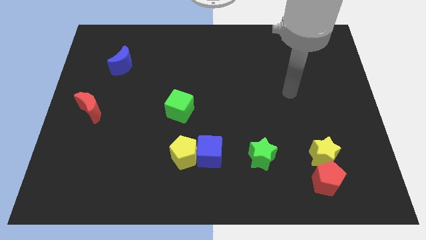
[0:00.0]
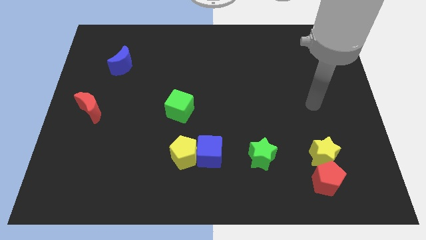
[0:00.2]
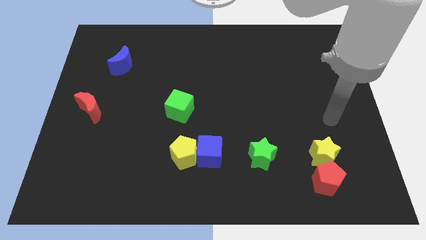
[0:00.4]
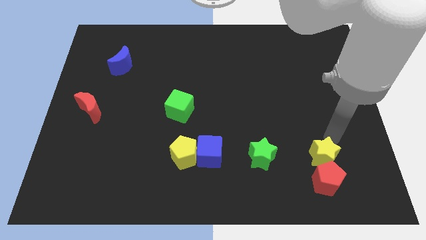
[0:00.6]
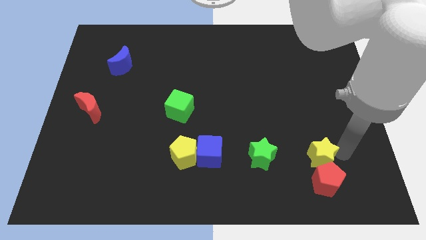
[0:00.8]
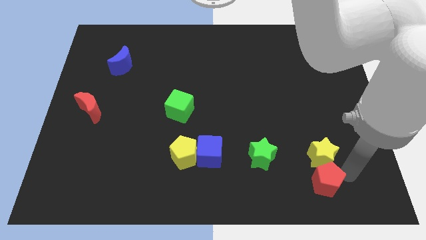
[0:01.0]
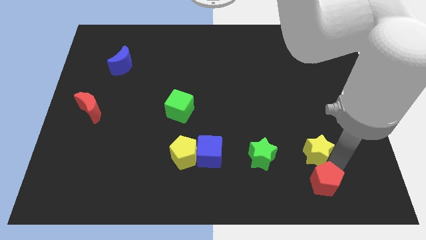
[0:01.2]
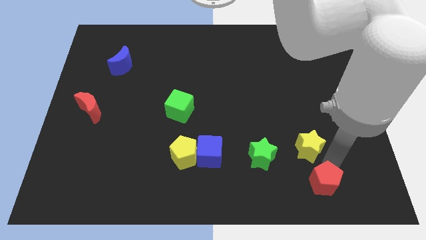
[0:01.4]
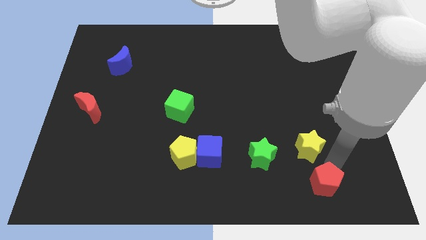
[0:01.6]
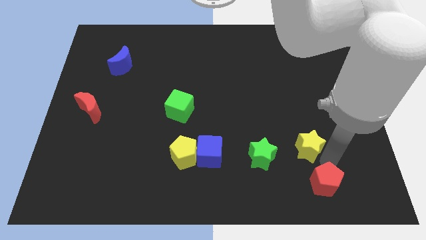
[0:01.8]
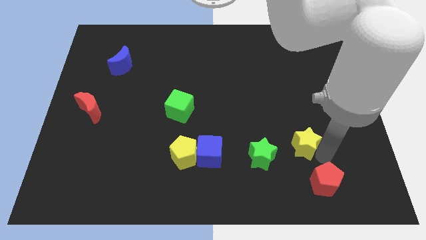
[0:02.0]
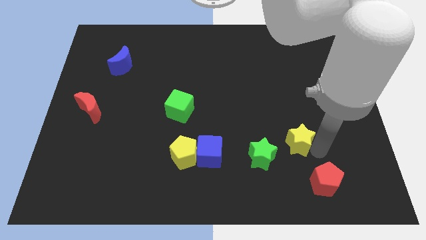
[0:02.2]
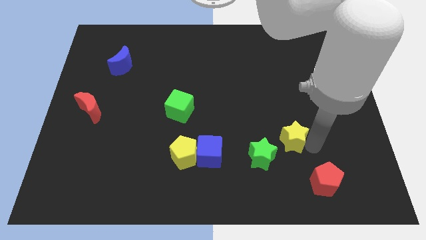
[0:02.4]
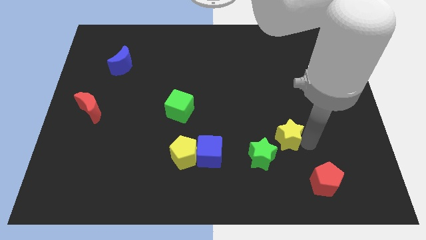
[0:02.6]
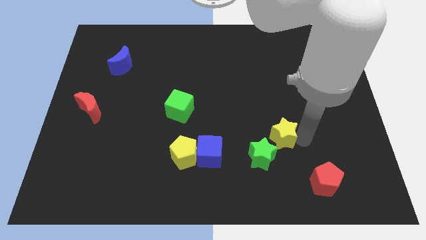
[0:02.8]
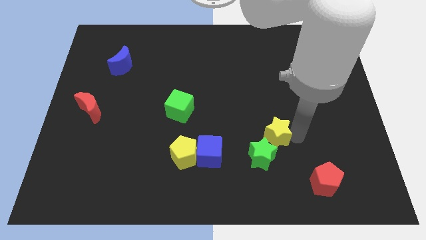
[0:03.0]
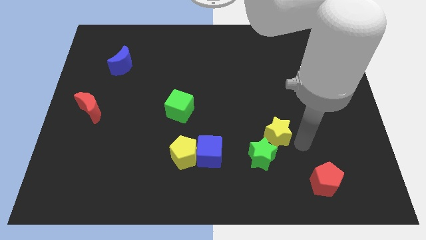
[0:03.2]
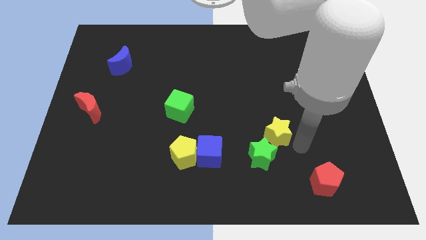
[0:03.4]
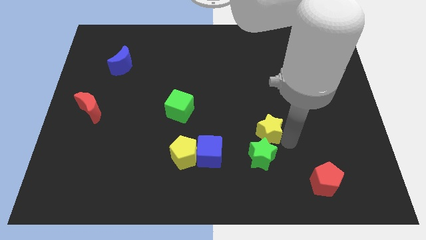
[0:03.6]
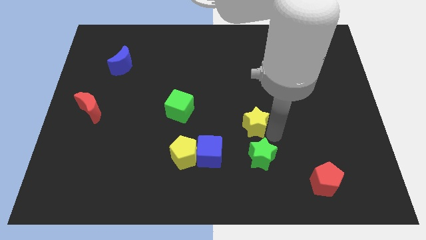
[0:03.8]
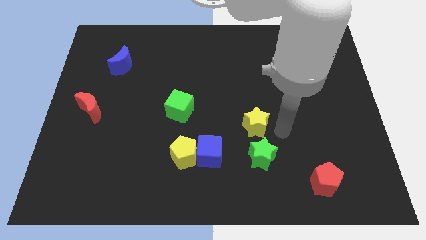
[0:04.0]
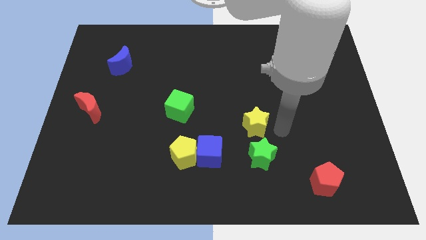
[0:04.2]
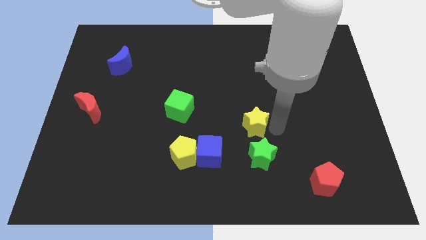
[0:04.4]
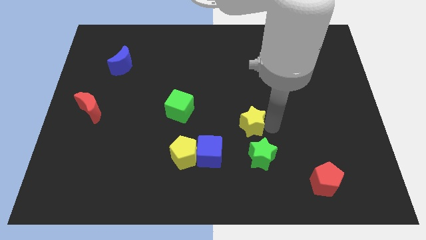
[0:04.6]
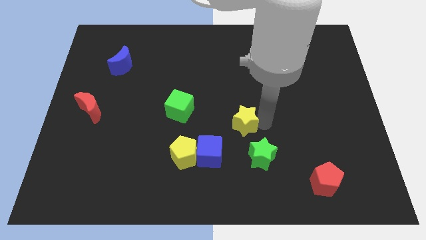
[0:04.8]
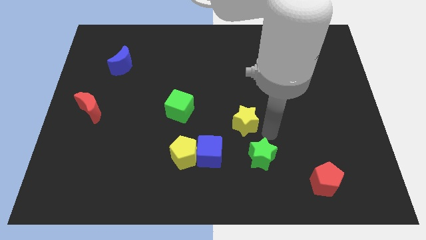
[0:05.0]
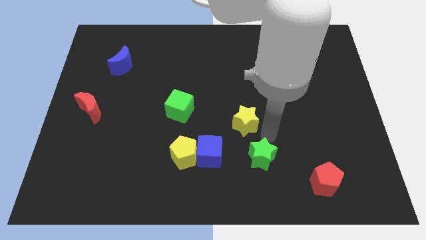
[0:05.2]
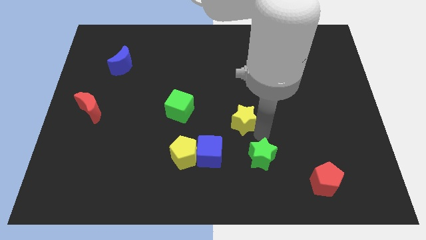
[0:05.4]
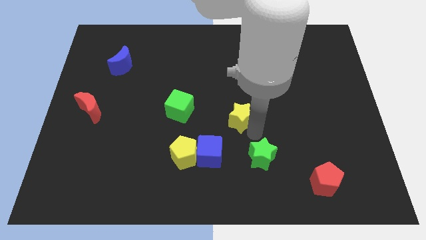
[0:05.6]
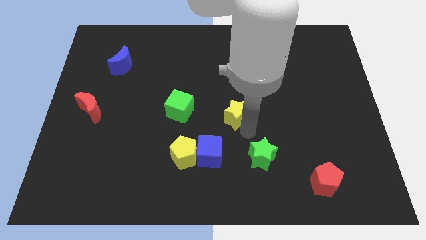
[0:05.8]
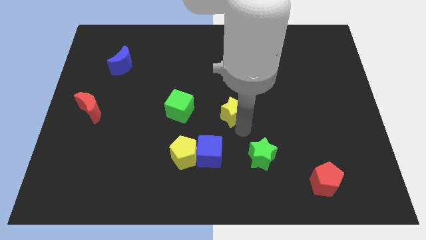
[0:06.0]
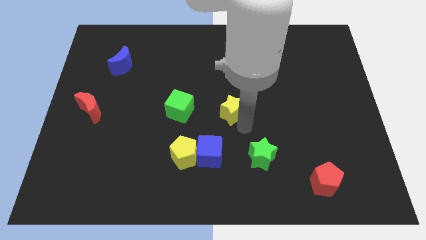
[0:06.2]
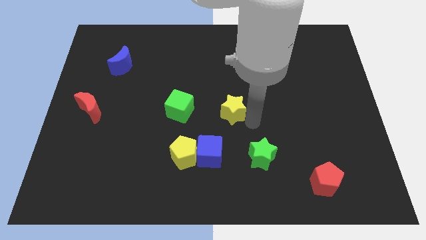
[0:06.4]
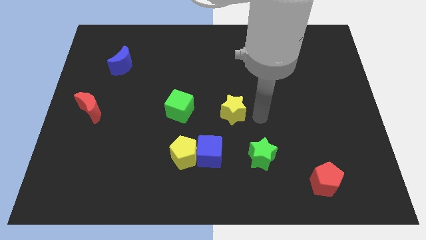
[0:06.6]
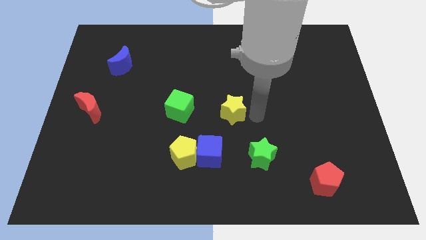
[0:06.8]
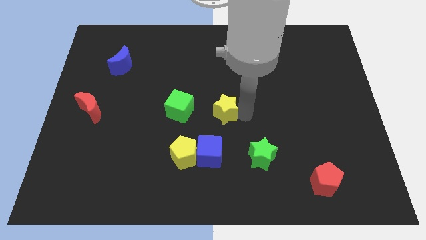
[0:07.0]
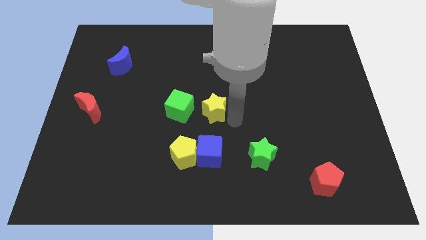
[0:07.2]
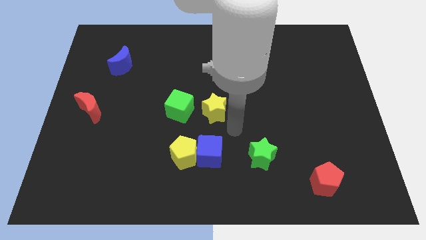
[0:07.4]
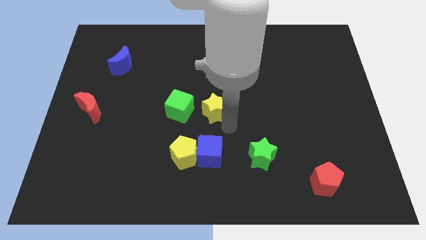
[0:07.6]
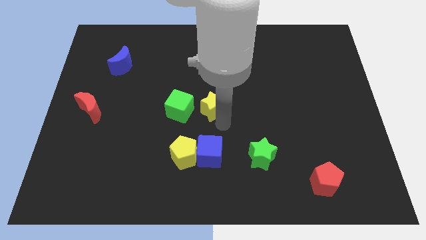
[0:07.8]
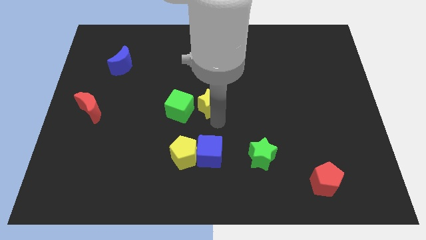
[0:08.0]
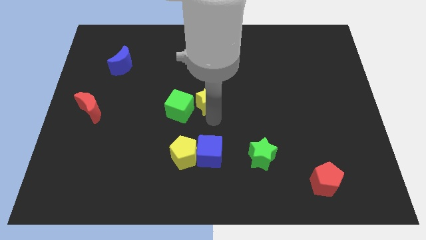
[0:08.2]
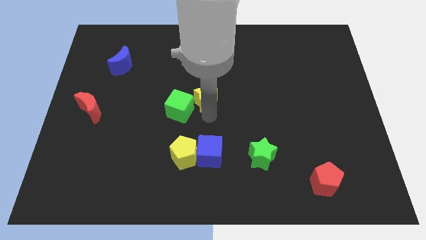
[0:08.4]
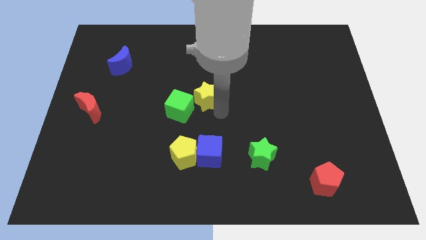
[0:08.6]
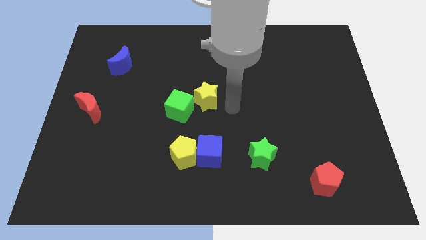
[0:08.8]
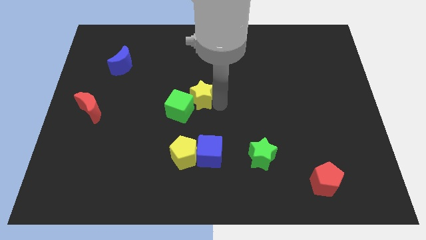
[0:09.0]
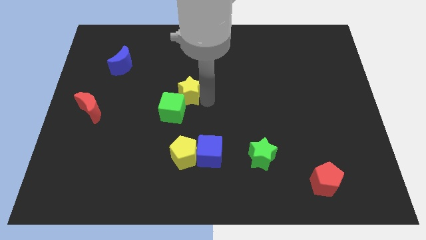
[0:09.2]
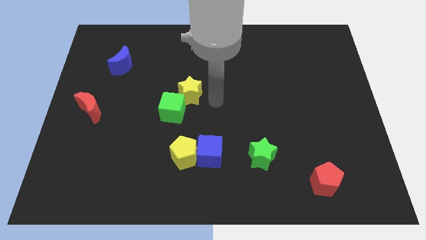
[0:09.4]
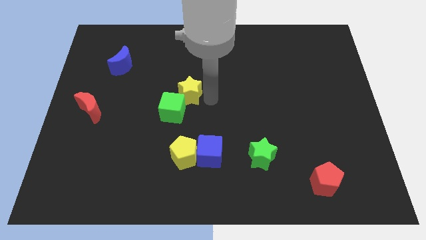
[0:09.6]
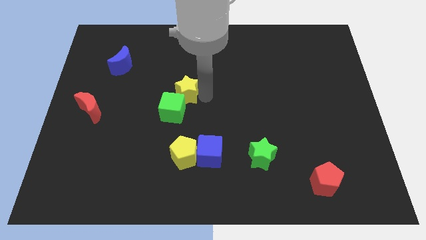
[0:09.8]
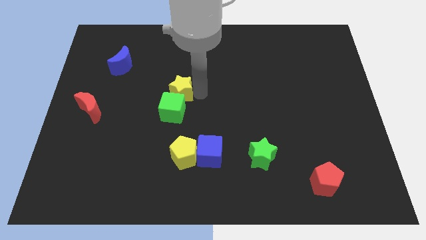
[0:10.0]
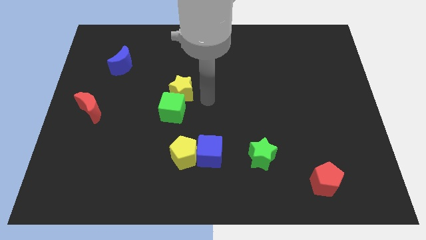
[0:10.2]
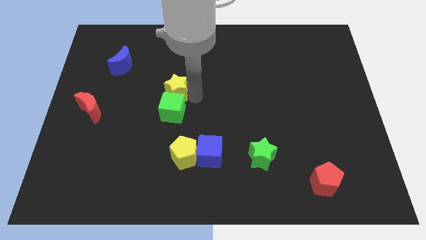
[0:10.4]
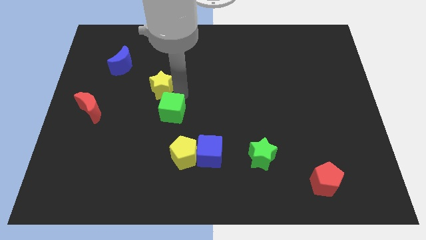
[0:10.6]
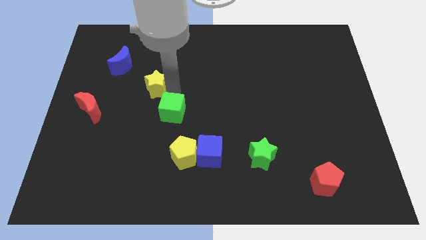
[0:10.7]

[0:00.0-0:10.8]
move the yellow star to the bottom right of the blue moon

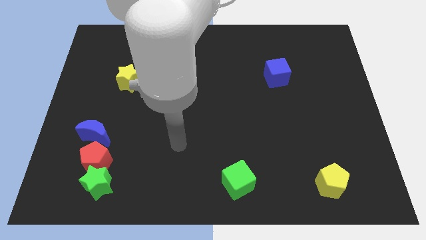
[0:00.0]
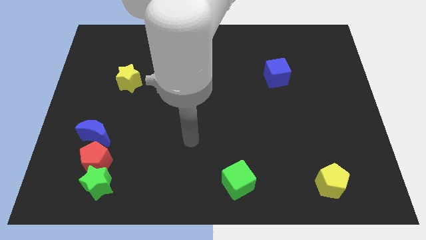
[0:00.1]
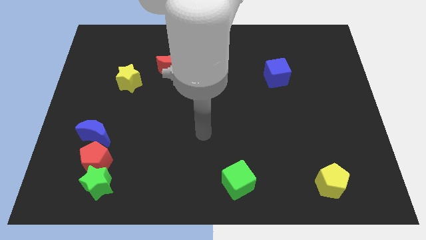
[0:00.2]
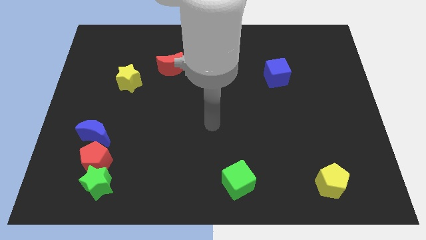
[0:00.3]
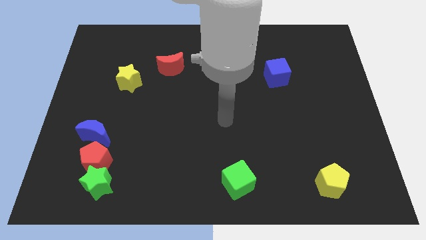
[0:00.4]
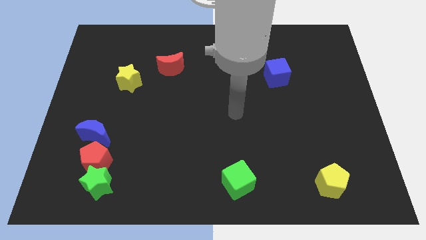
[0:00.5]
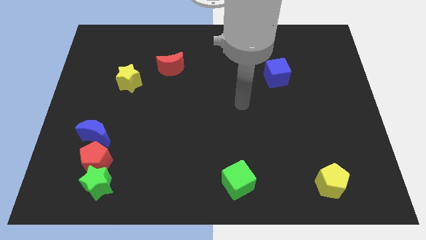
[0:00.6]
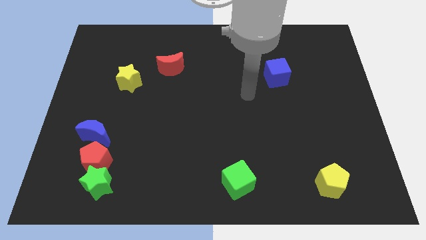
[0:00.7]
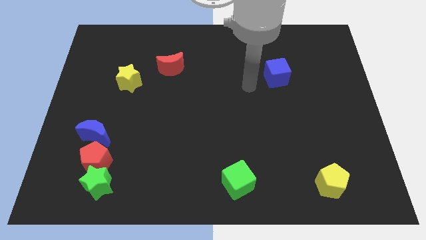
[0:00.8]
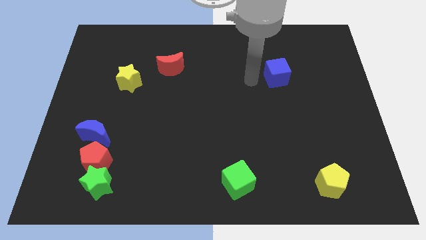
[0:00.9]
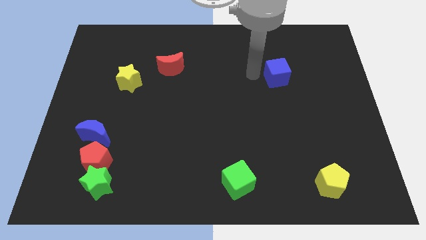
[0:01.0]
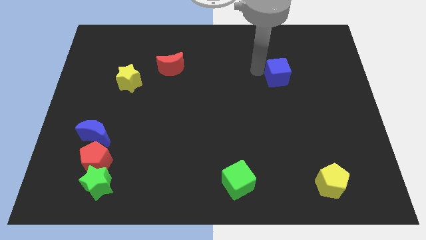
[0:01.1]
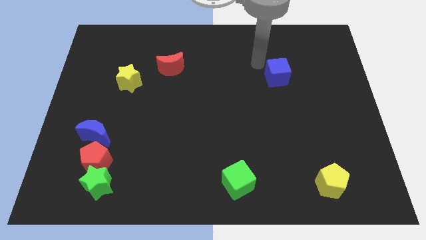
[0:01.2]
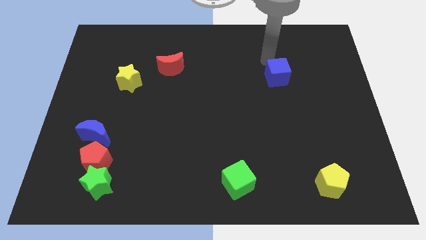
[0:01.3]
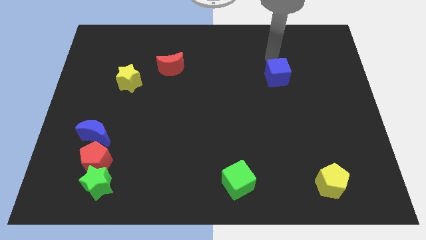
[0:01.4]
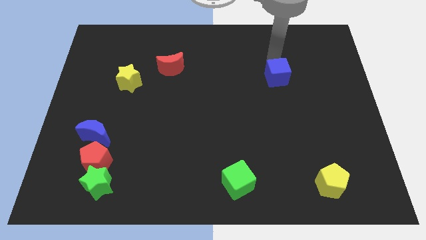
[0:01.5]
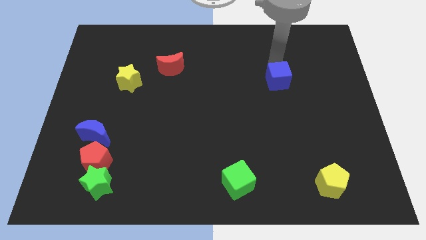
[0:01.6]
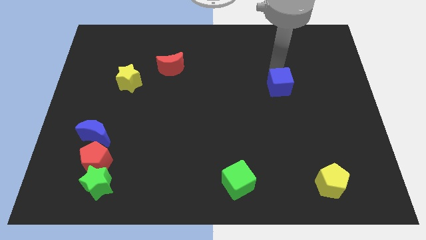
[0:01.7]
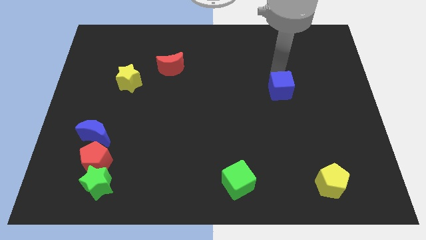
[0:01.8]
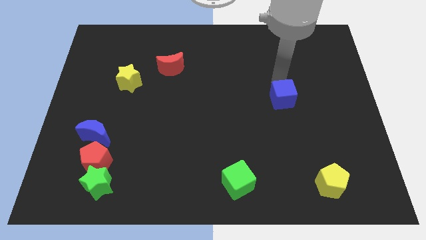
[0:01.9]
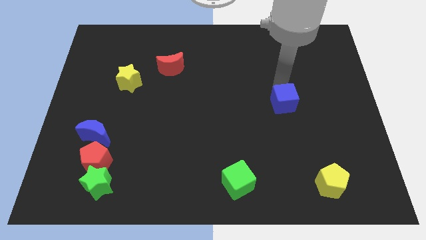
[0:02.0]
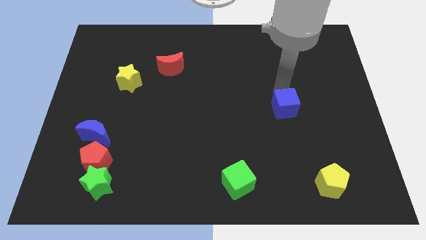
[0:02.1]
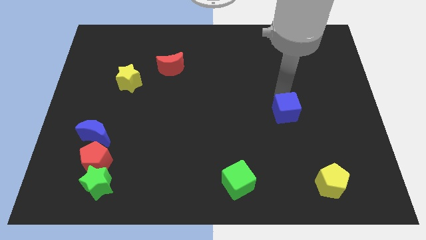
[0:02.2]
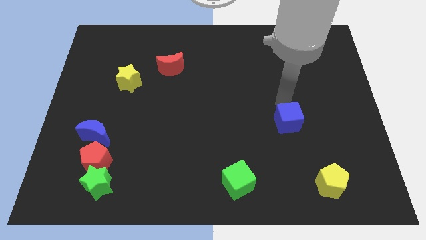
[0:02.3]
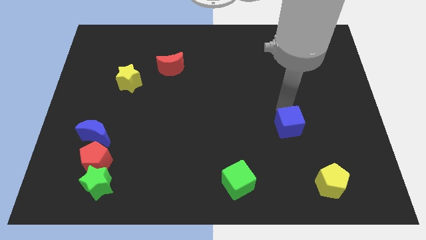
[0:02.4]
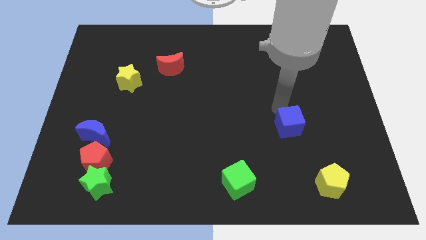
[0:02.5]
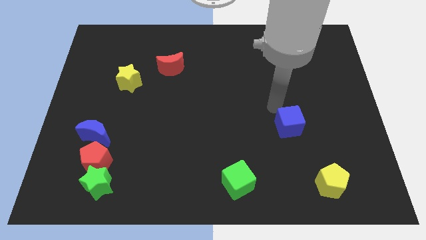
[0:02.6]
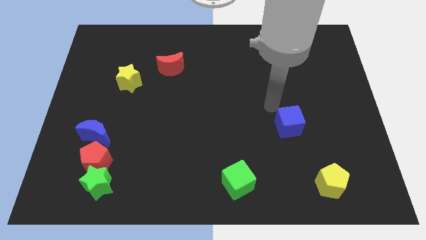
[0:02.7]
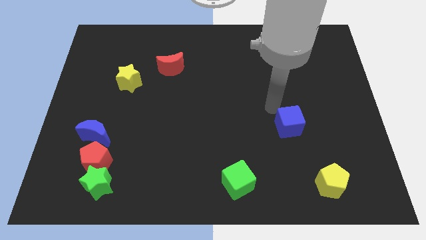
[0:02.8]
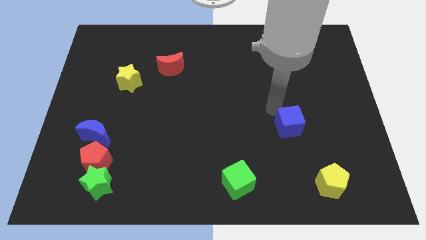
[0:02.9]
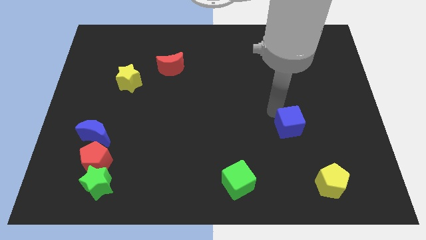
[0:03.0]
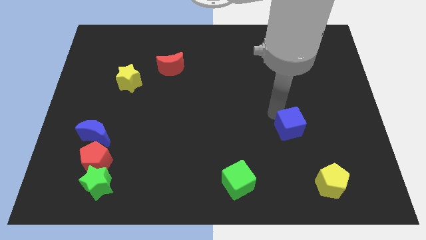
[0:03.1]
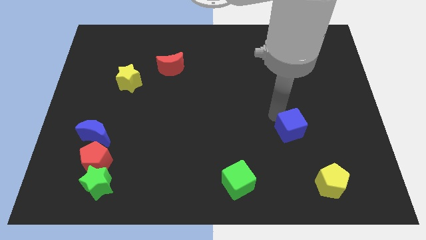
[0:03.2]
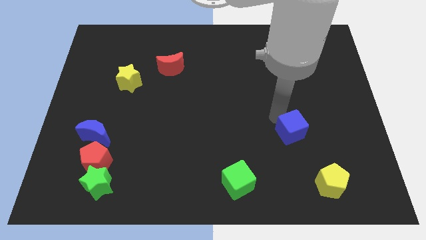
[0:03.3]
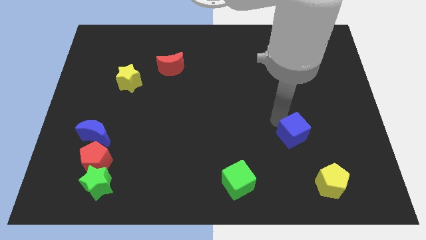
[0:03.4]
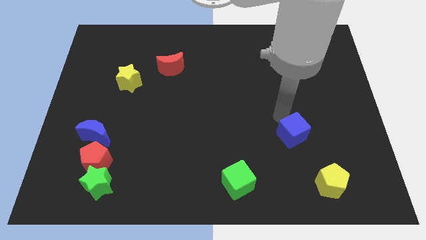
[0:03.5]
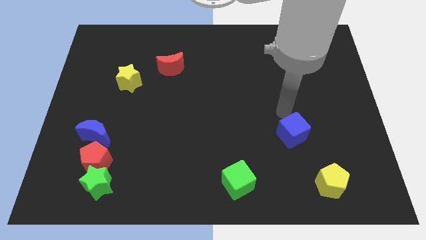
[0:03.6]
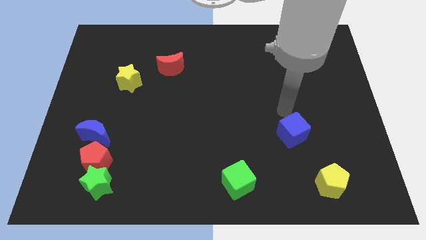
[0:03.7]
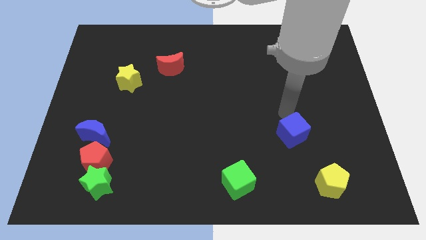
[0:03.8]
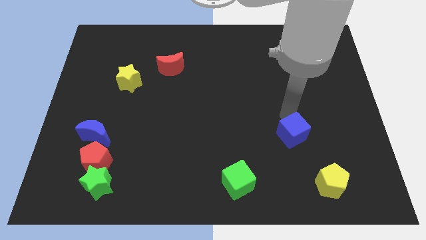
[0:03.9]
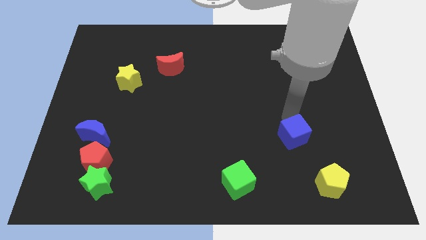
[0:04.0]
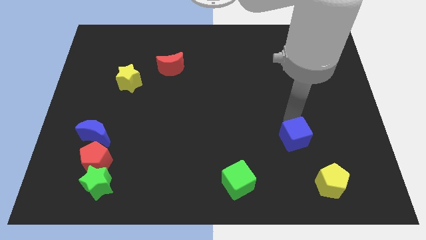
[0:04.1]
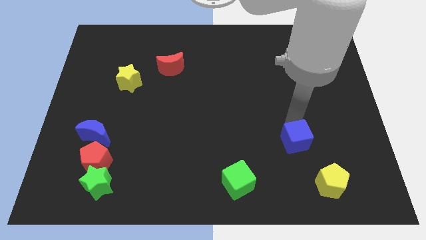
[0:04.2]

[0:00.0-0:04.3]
slide the blue cube to the top left of the yellow pentagon
